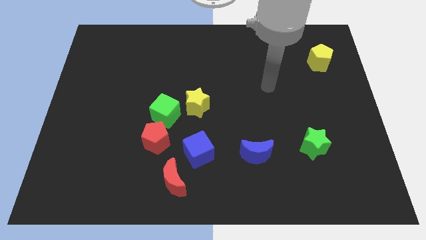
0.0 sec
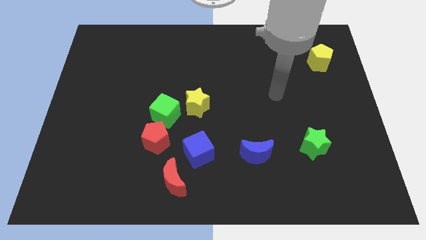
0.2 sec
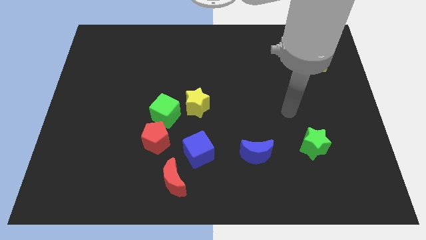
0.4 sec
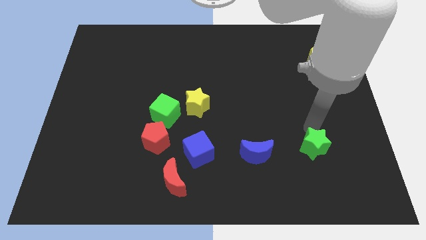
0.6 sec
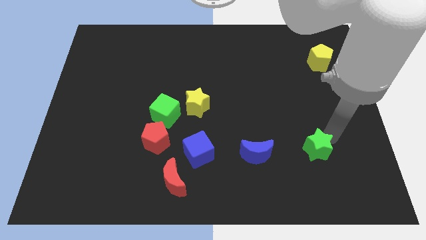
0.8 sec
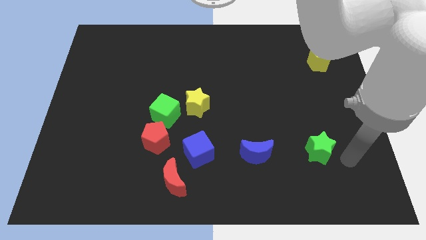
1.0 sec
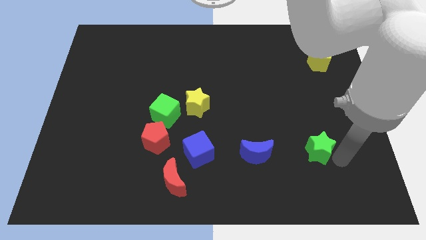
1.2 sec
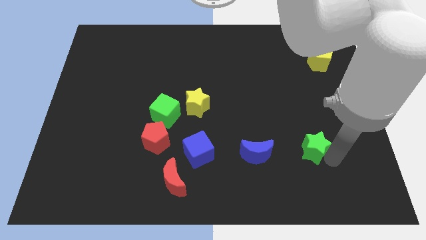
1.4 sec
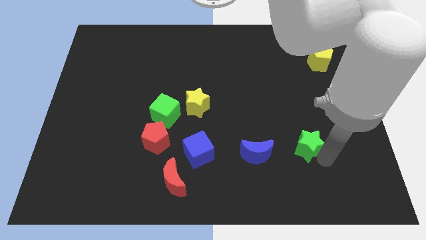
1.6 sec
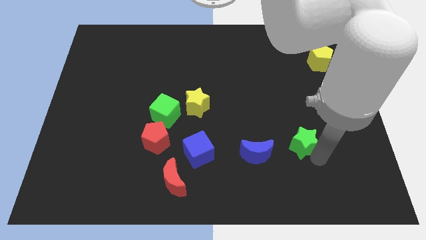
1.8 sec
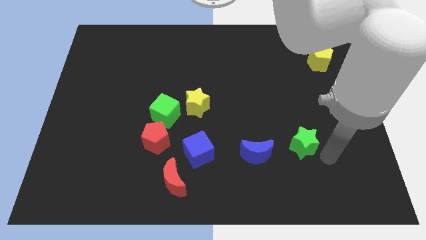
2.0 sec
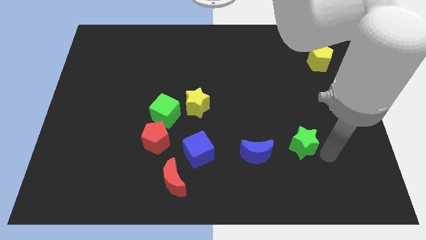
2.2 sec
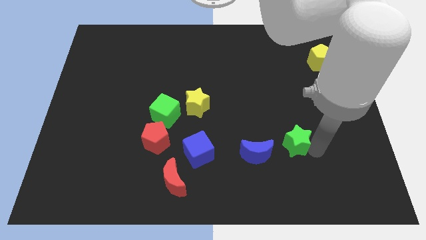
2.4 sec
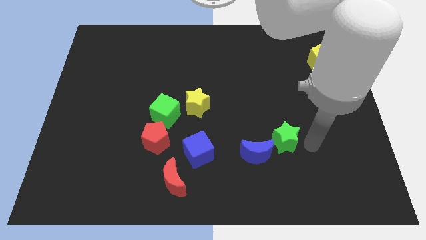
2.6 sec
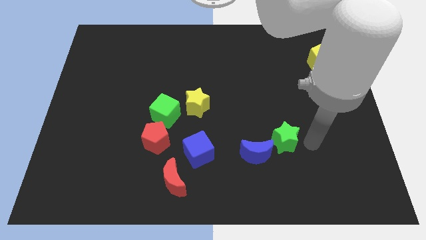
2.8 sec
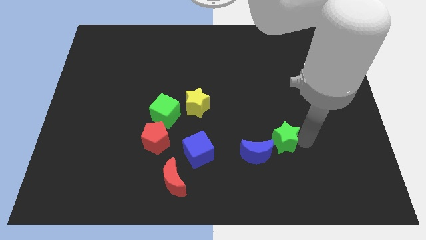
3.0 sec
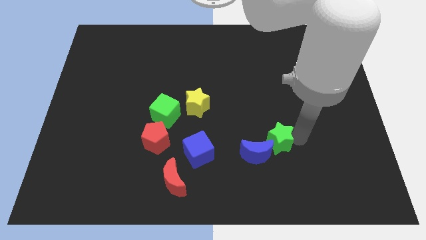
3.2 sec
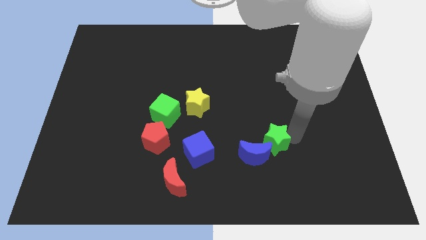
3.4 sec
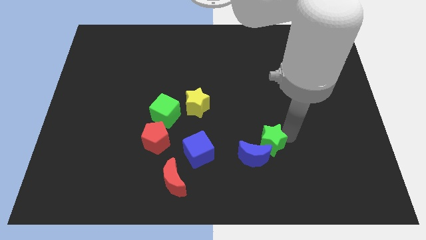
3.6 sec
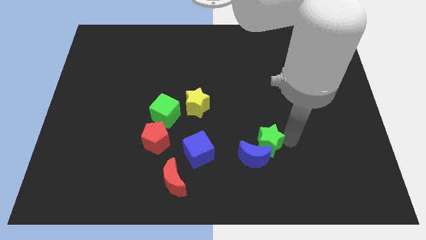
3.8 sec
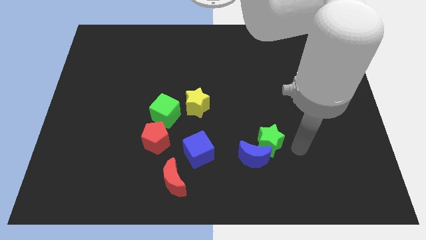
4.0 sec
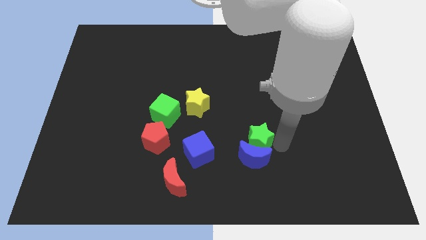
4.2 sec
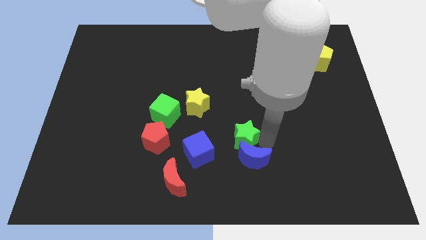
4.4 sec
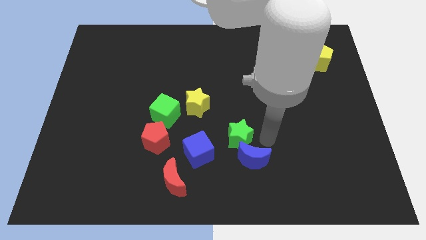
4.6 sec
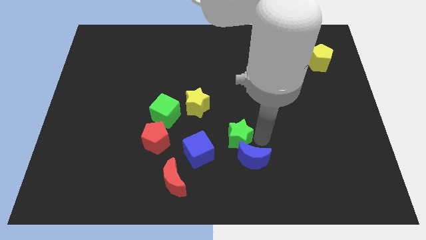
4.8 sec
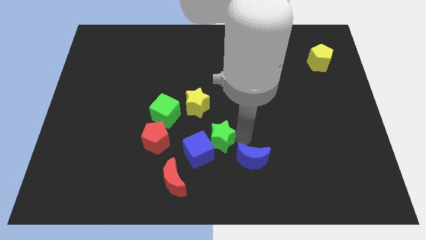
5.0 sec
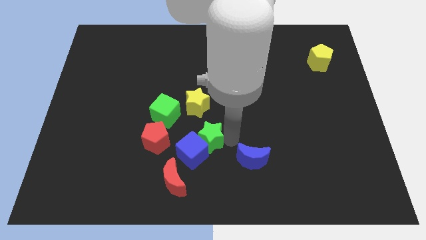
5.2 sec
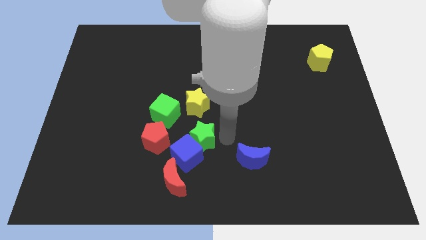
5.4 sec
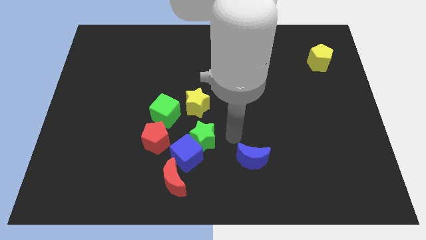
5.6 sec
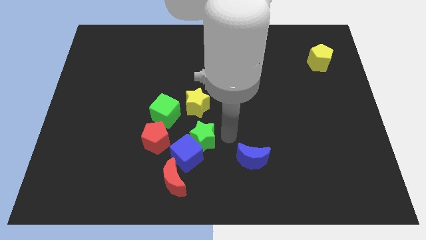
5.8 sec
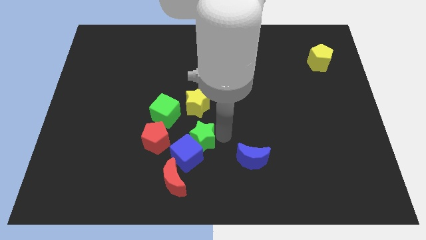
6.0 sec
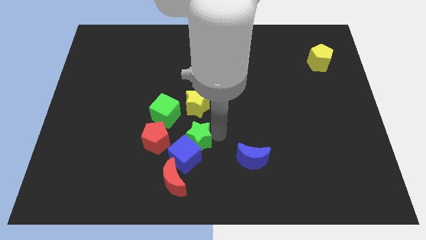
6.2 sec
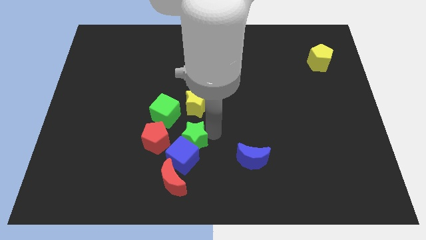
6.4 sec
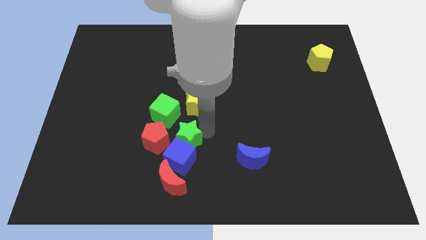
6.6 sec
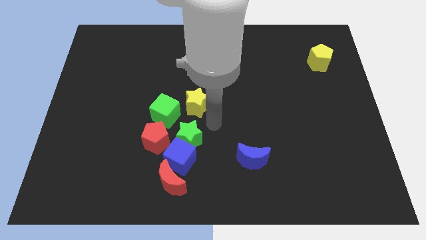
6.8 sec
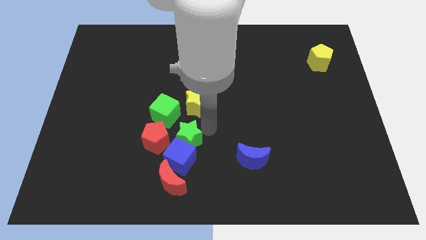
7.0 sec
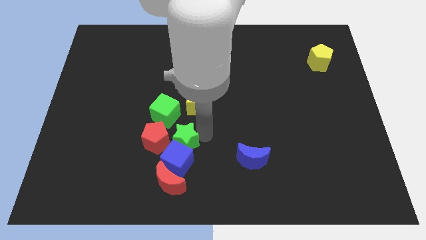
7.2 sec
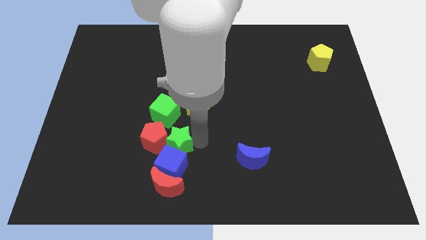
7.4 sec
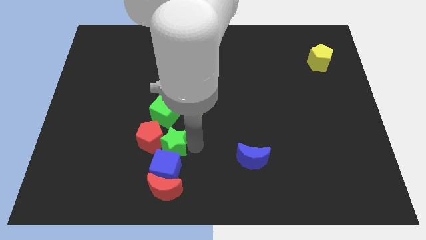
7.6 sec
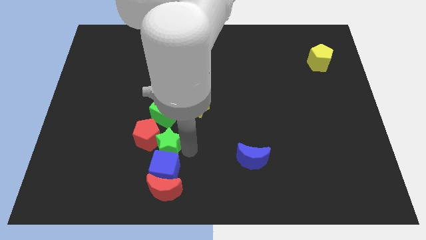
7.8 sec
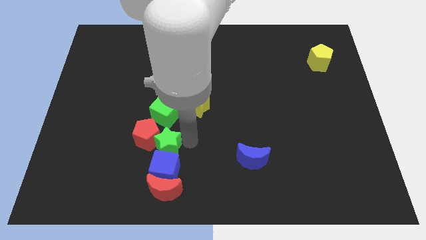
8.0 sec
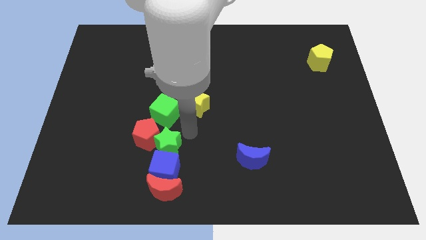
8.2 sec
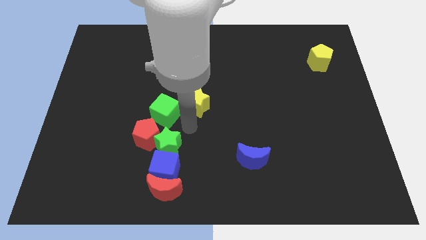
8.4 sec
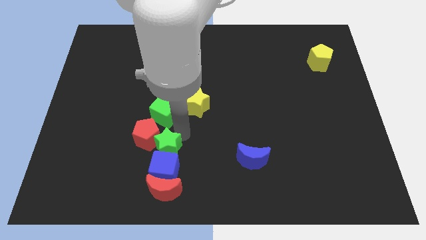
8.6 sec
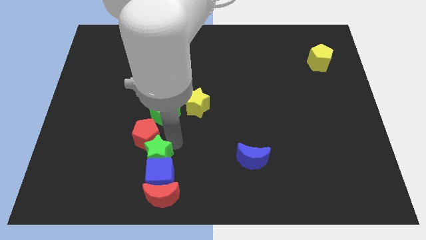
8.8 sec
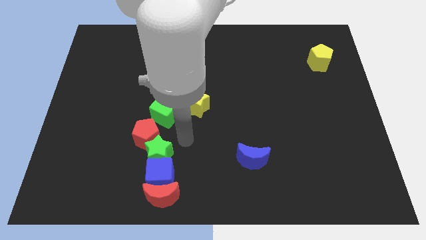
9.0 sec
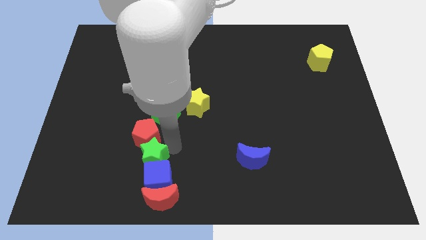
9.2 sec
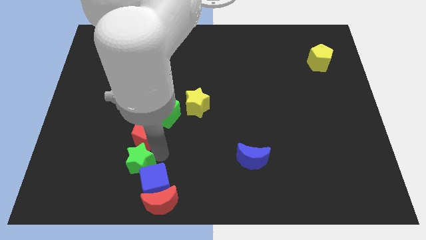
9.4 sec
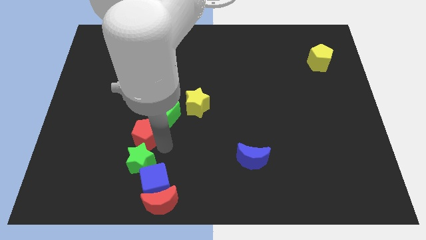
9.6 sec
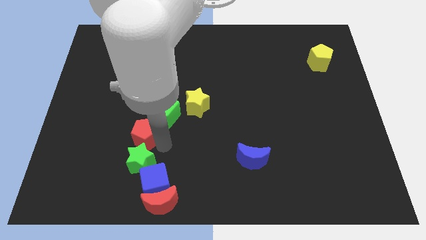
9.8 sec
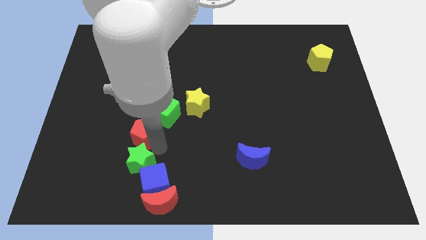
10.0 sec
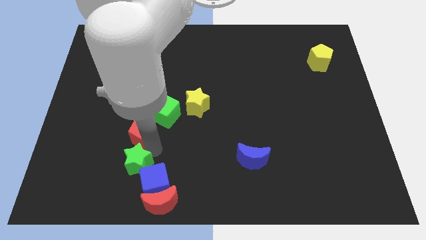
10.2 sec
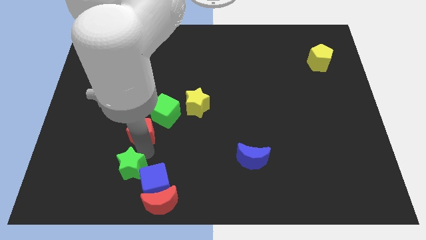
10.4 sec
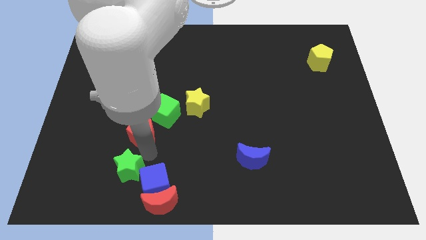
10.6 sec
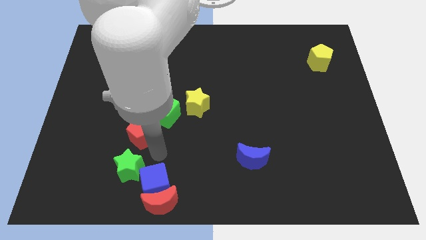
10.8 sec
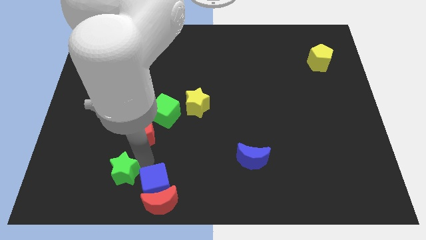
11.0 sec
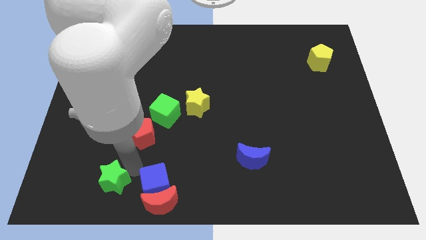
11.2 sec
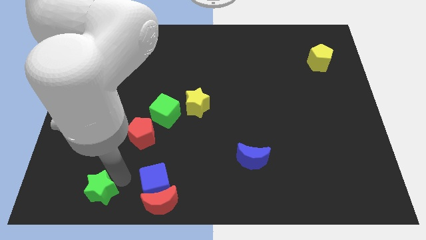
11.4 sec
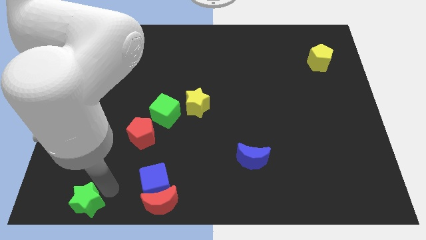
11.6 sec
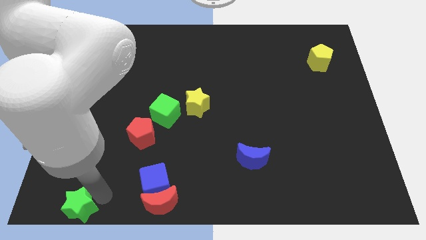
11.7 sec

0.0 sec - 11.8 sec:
push the green star to the bottom left of the board

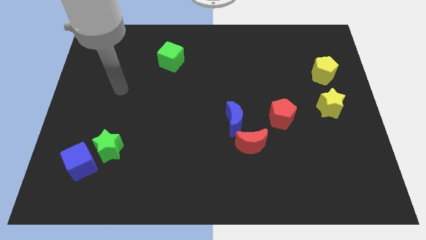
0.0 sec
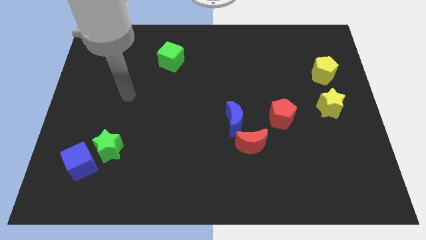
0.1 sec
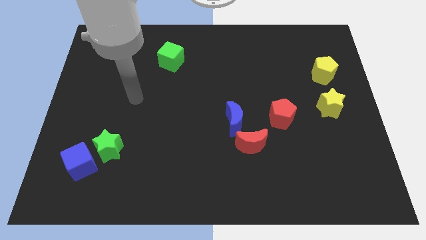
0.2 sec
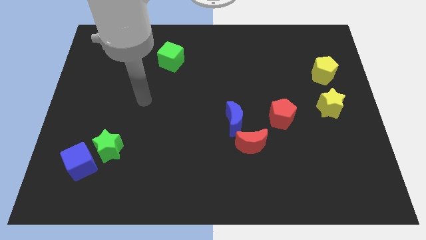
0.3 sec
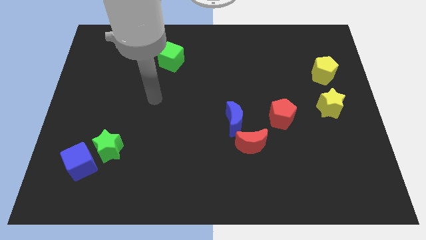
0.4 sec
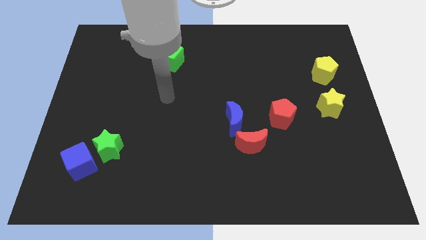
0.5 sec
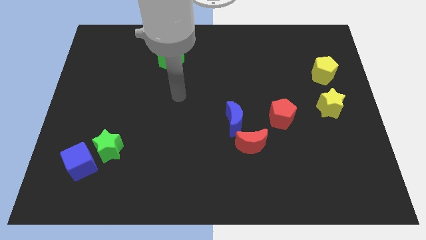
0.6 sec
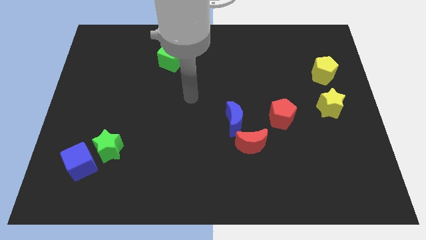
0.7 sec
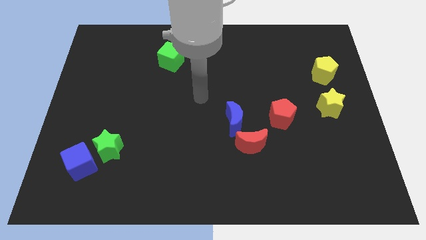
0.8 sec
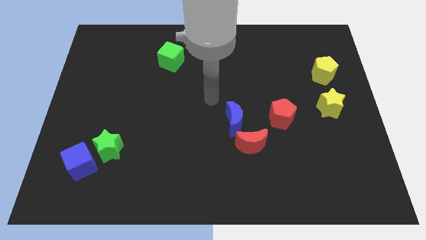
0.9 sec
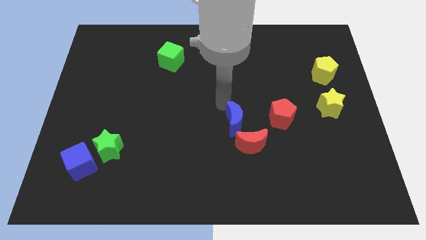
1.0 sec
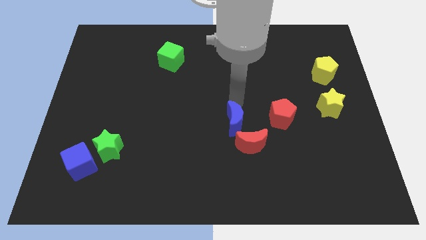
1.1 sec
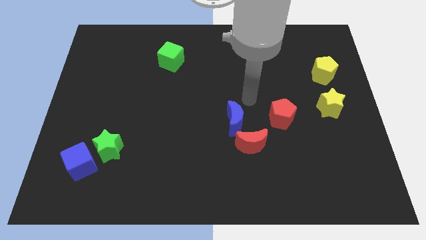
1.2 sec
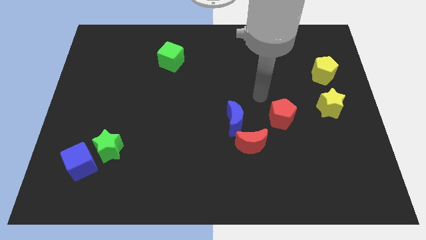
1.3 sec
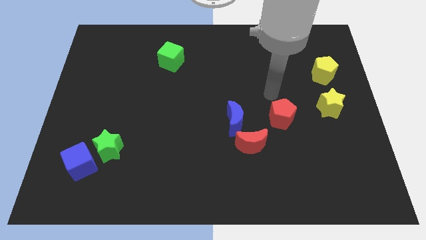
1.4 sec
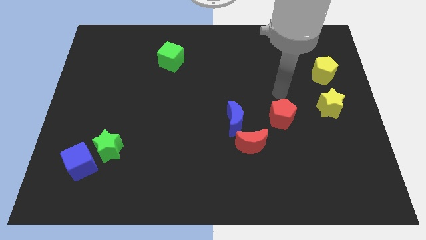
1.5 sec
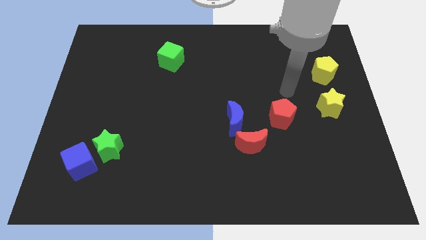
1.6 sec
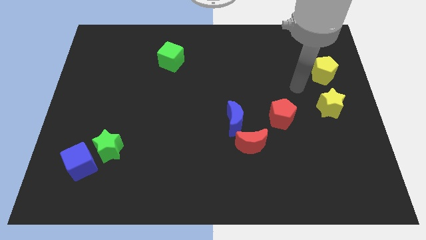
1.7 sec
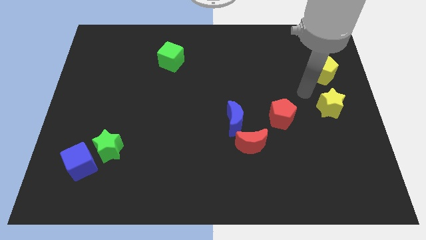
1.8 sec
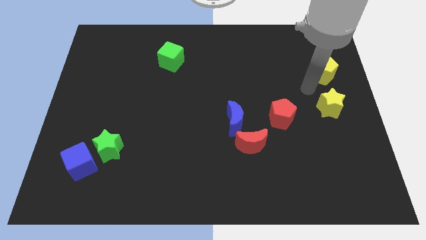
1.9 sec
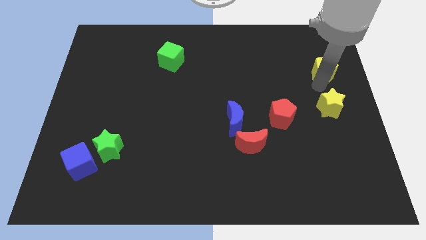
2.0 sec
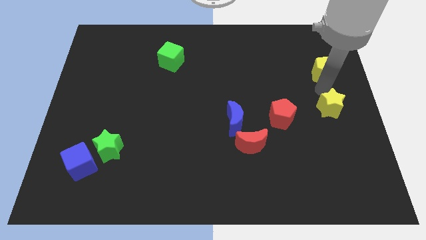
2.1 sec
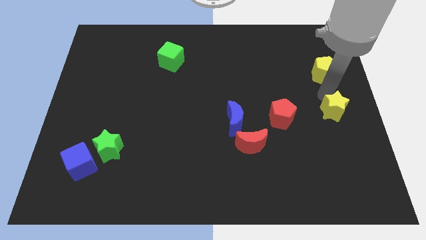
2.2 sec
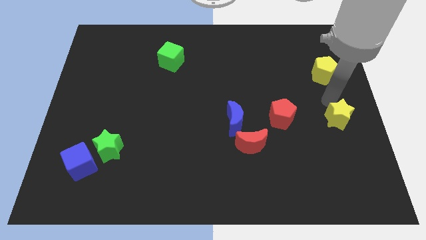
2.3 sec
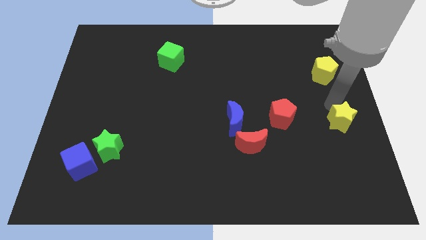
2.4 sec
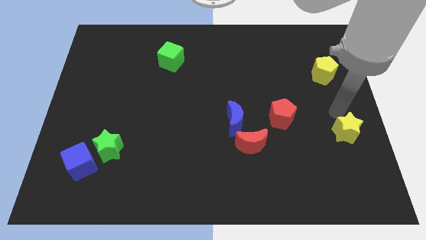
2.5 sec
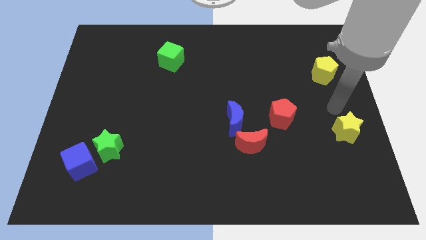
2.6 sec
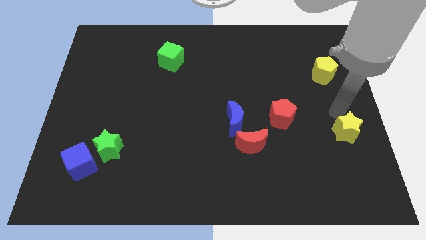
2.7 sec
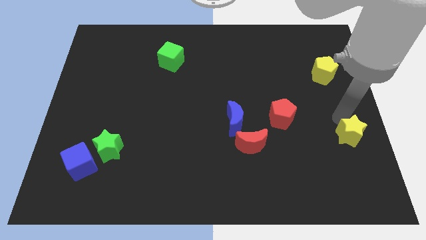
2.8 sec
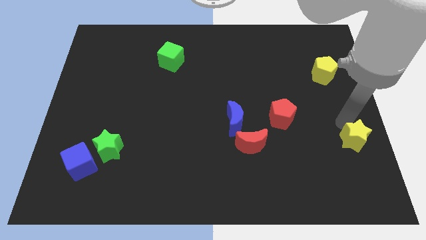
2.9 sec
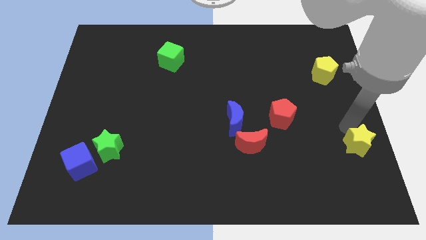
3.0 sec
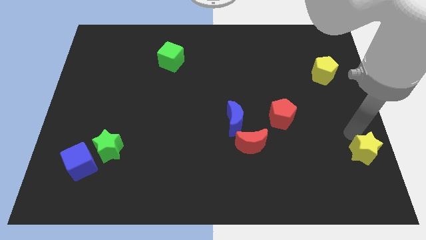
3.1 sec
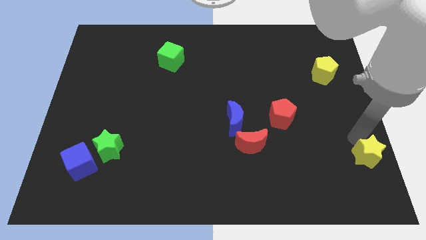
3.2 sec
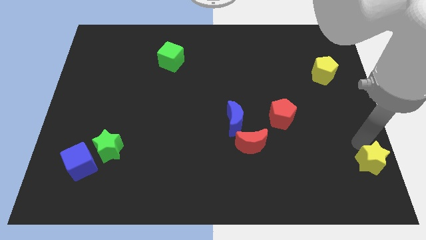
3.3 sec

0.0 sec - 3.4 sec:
slide the yellow star to the lower right corner
